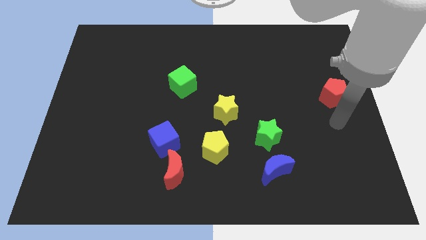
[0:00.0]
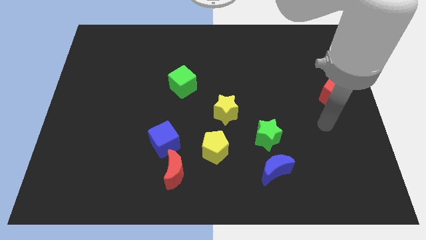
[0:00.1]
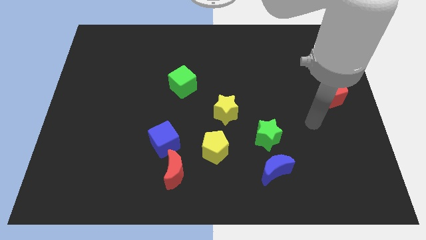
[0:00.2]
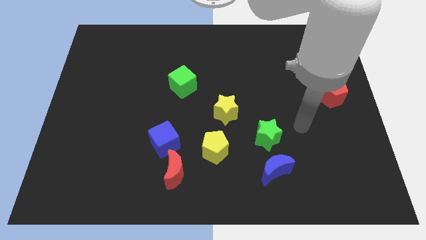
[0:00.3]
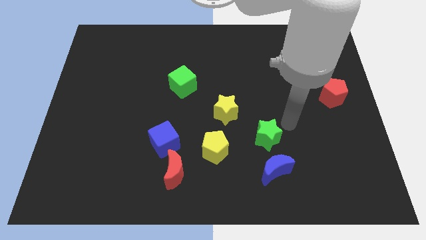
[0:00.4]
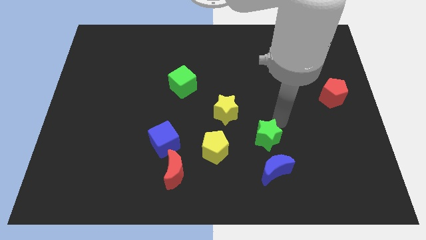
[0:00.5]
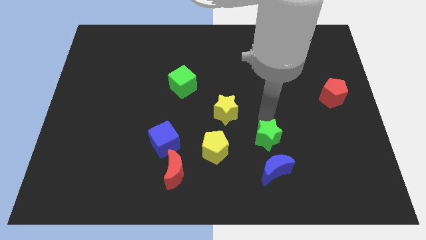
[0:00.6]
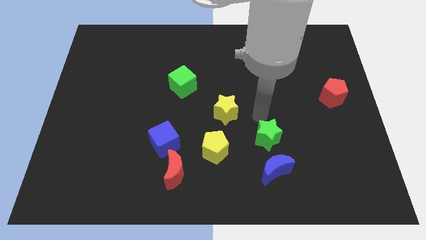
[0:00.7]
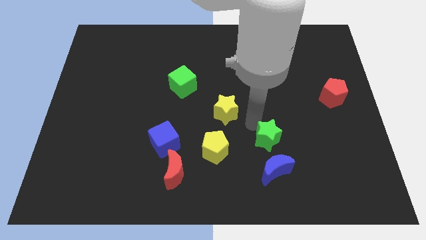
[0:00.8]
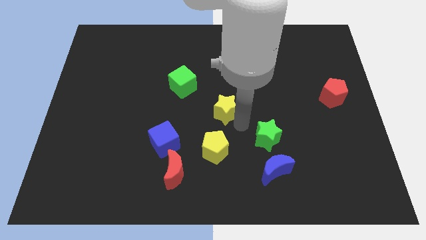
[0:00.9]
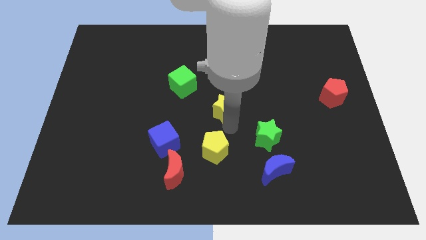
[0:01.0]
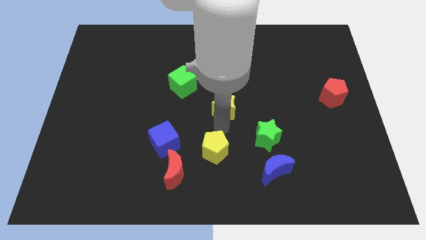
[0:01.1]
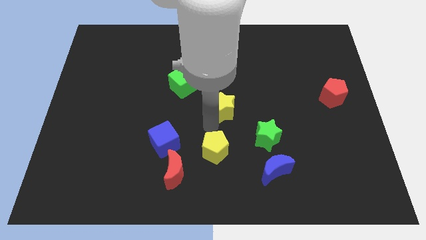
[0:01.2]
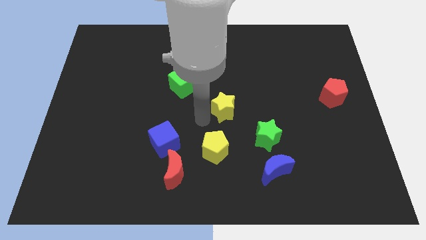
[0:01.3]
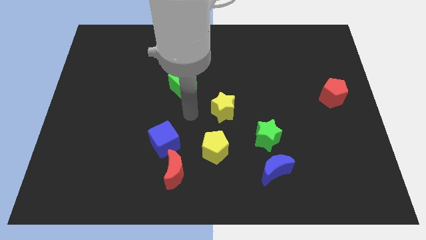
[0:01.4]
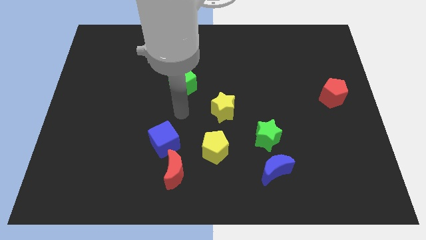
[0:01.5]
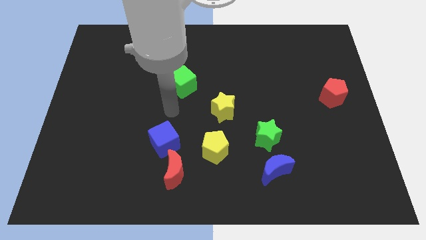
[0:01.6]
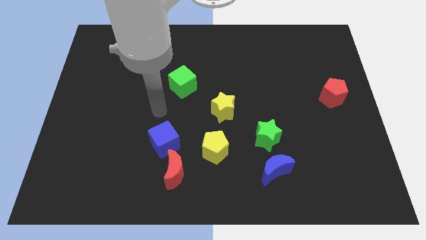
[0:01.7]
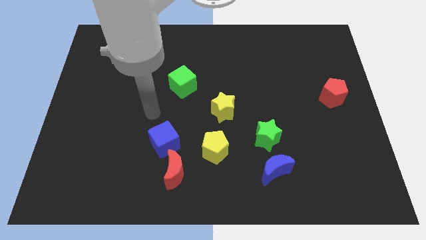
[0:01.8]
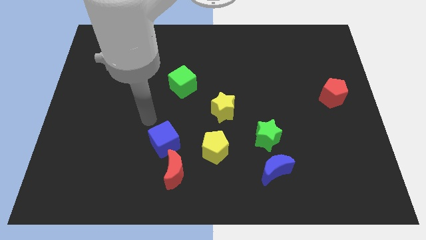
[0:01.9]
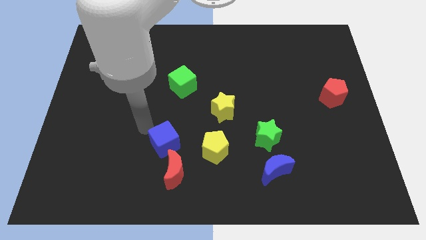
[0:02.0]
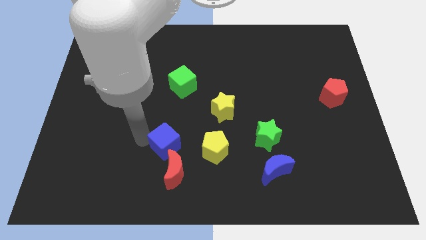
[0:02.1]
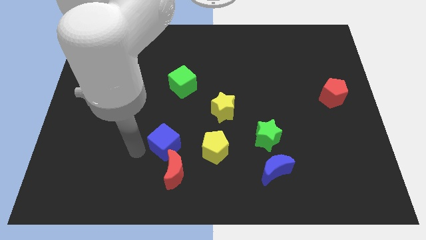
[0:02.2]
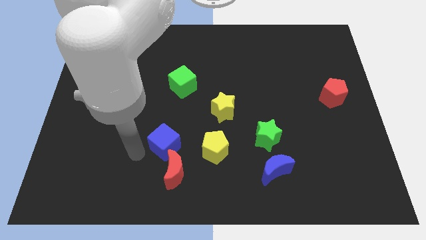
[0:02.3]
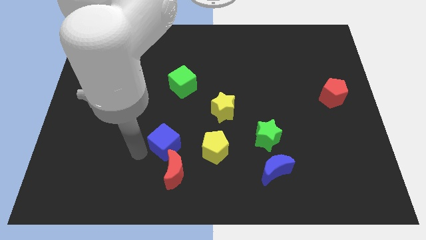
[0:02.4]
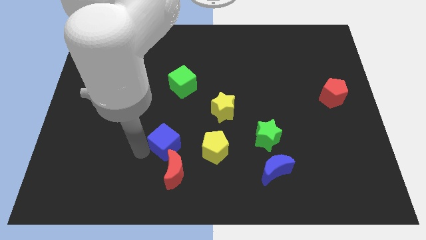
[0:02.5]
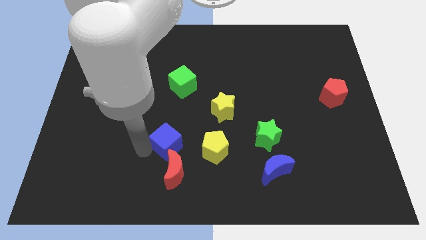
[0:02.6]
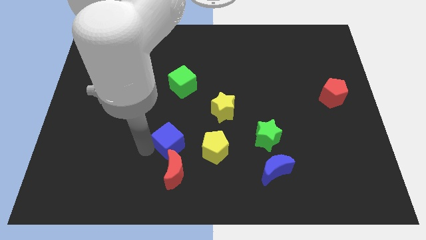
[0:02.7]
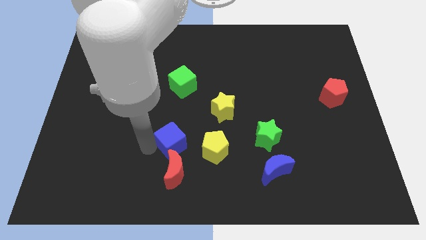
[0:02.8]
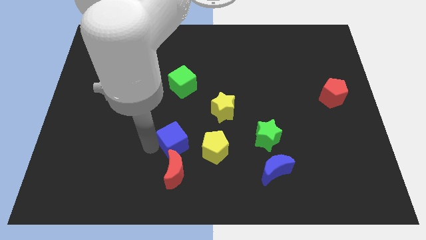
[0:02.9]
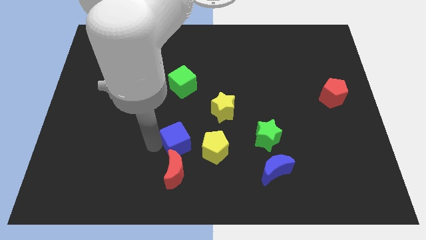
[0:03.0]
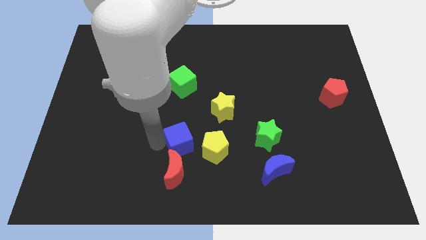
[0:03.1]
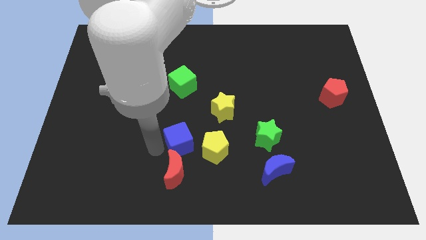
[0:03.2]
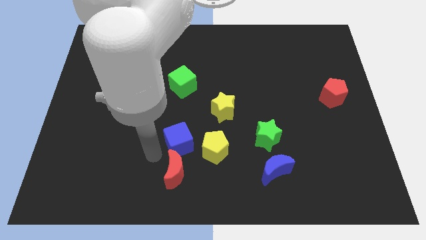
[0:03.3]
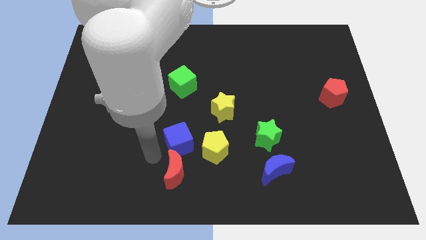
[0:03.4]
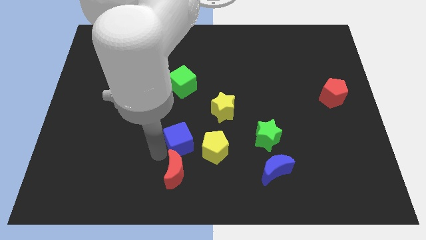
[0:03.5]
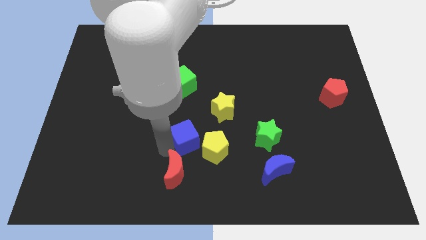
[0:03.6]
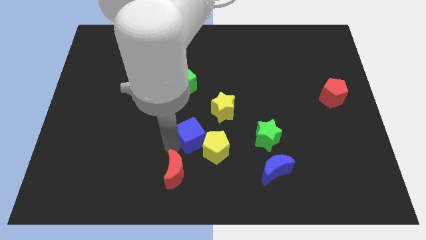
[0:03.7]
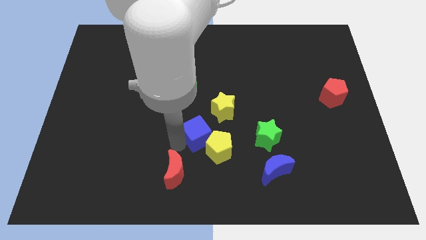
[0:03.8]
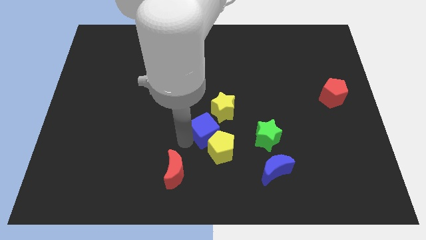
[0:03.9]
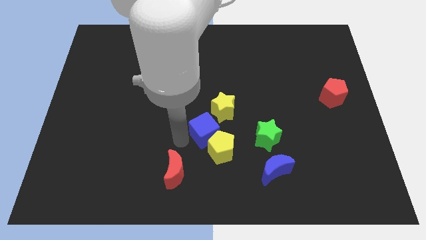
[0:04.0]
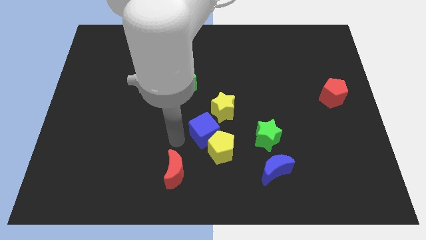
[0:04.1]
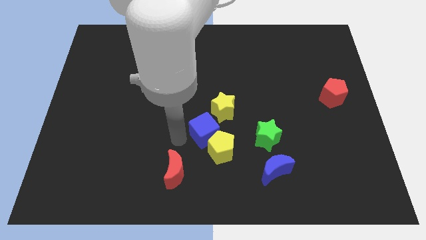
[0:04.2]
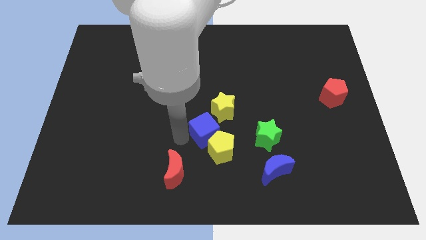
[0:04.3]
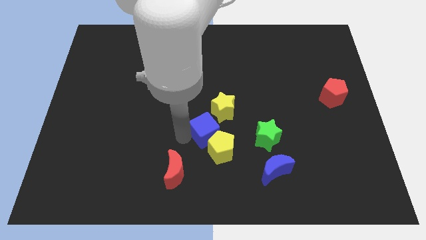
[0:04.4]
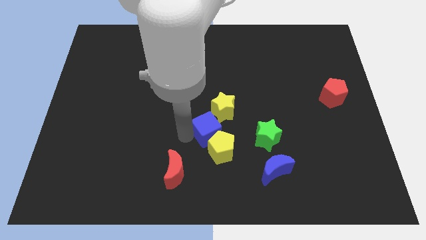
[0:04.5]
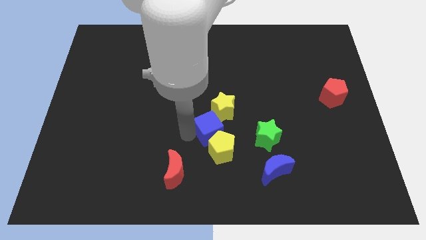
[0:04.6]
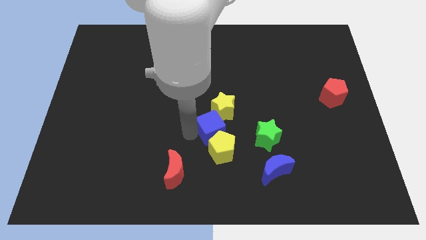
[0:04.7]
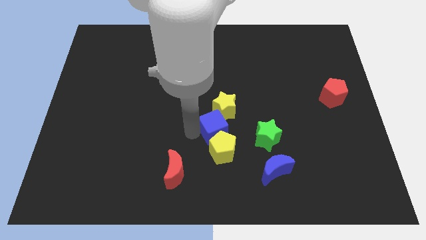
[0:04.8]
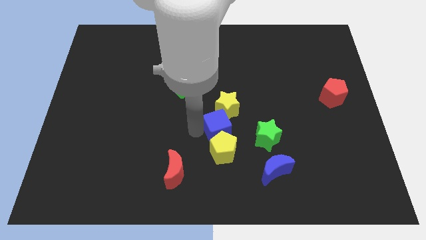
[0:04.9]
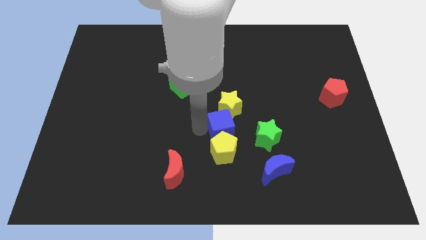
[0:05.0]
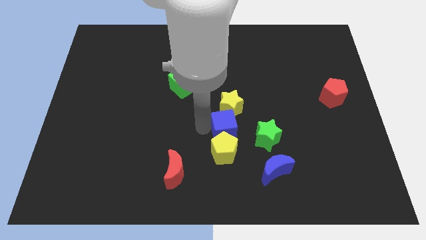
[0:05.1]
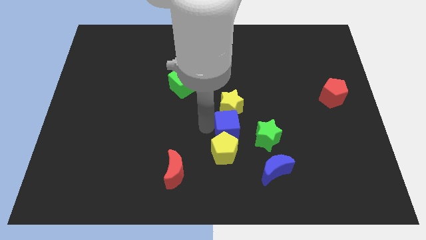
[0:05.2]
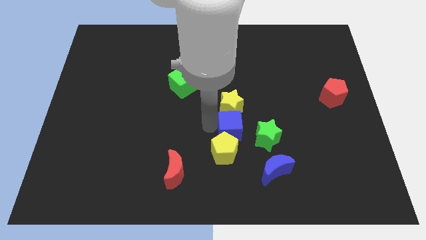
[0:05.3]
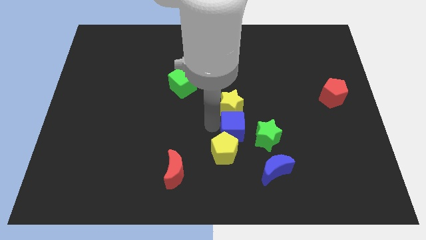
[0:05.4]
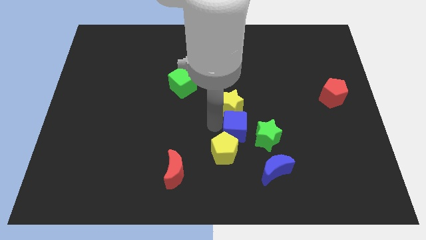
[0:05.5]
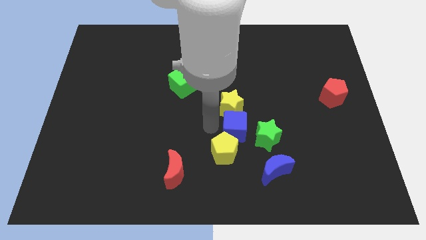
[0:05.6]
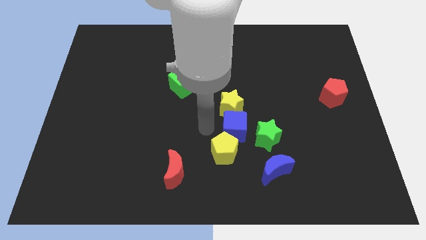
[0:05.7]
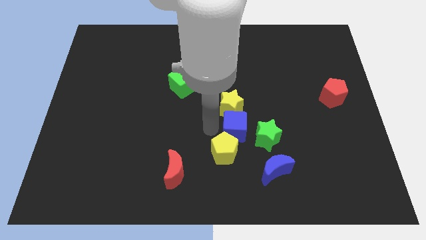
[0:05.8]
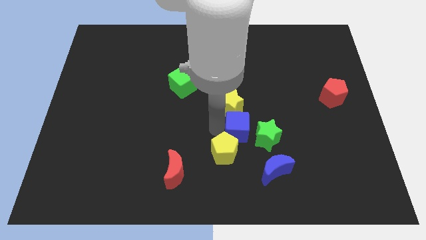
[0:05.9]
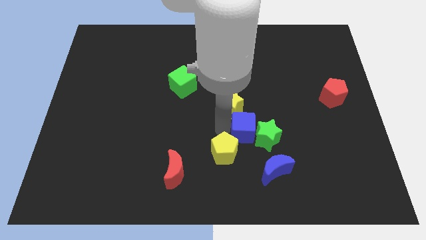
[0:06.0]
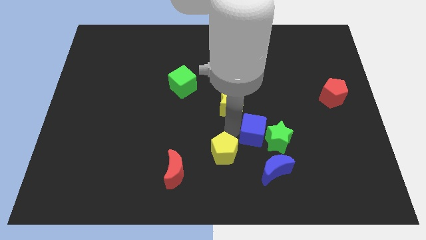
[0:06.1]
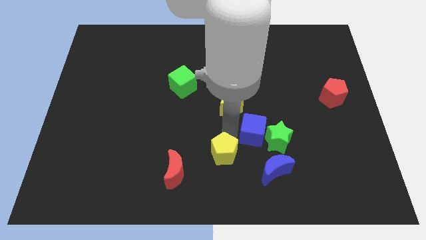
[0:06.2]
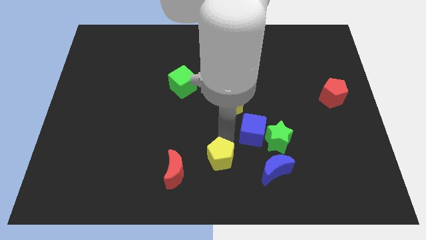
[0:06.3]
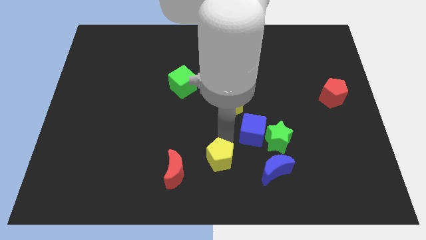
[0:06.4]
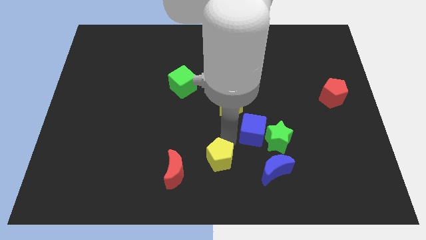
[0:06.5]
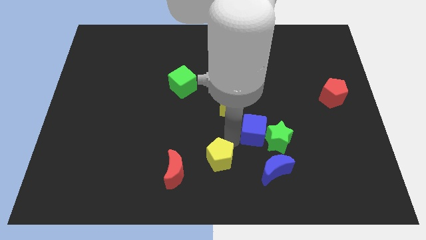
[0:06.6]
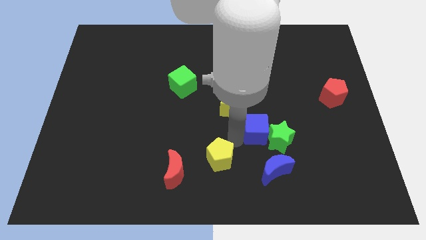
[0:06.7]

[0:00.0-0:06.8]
push the blue cube right

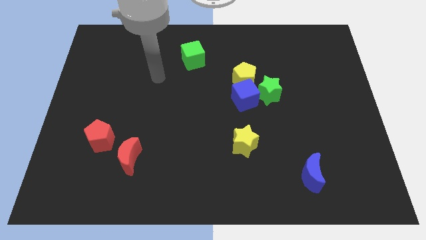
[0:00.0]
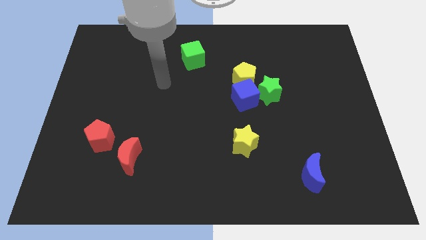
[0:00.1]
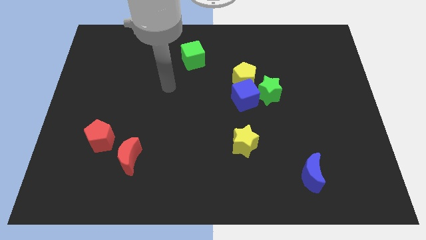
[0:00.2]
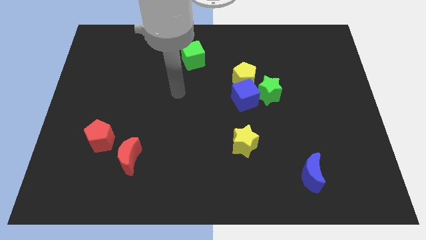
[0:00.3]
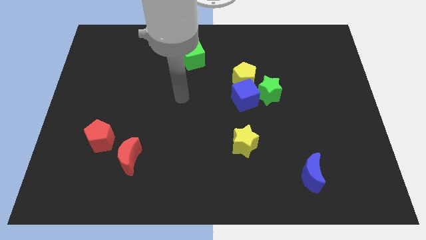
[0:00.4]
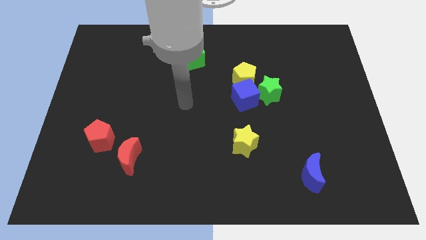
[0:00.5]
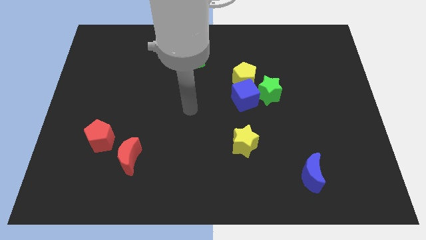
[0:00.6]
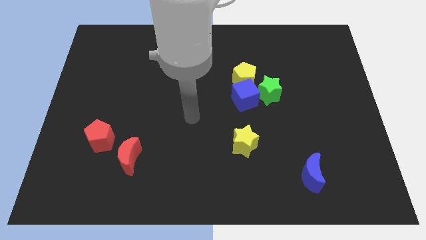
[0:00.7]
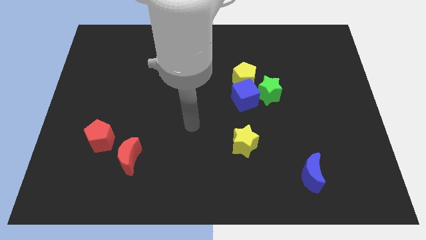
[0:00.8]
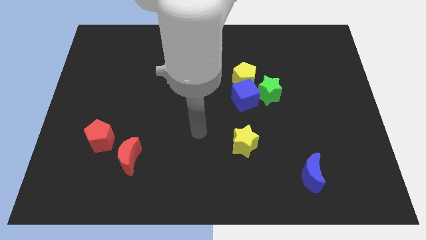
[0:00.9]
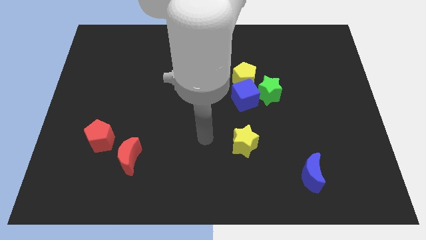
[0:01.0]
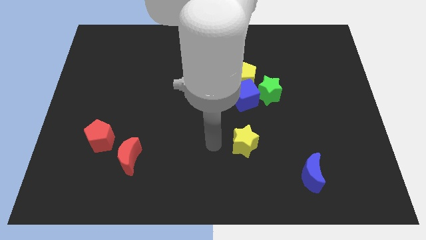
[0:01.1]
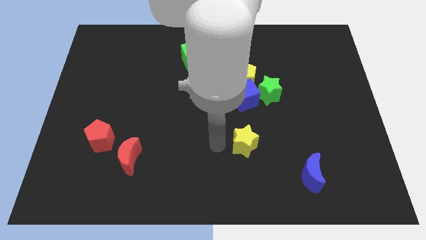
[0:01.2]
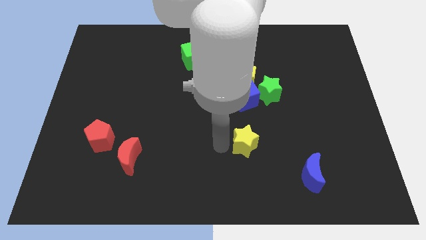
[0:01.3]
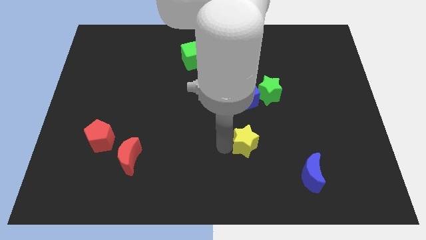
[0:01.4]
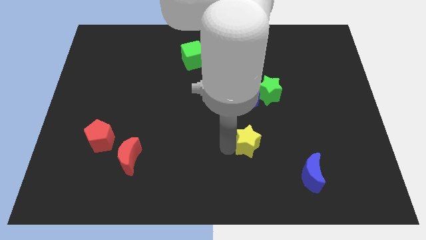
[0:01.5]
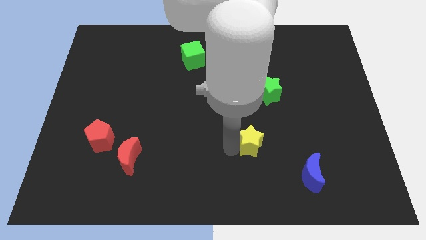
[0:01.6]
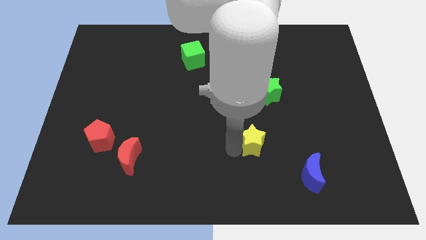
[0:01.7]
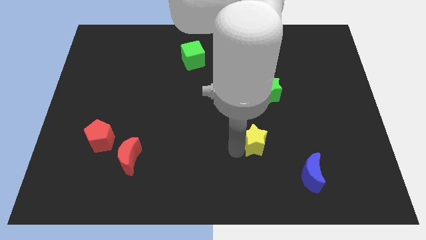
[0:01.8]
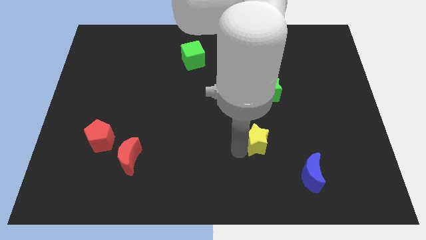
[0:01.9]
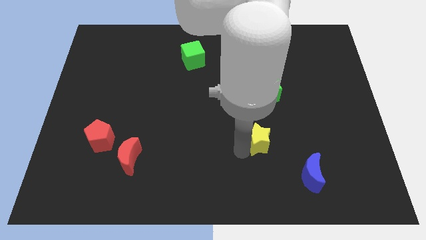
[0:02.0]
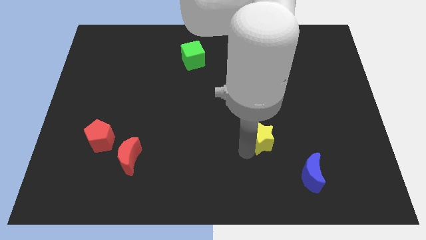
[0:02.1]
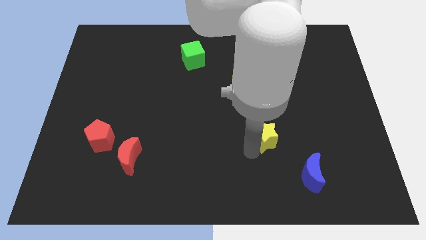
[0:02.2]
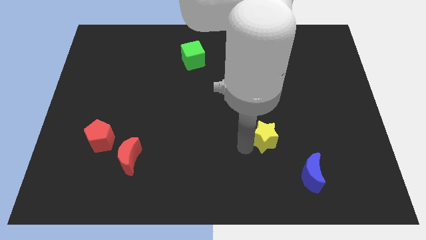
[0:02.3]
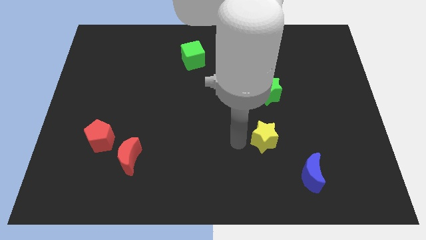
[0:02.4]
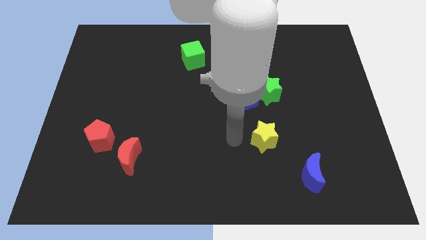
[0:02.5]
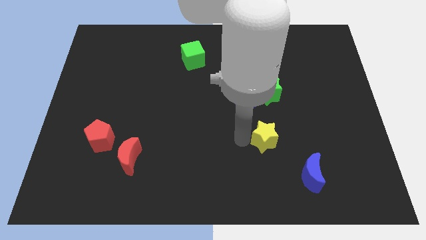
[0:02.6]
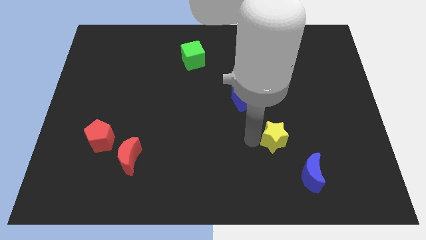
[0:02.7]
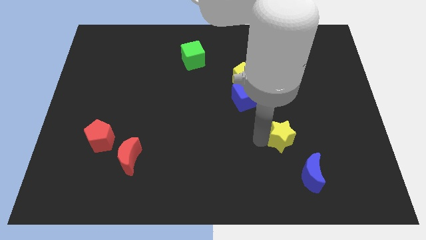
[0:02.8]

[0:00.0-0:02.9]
slide the yellow star to the right a bit
